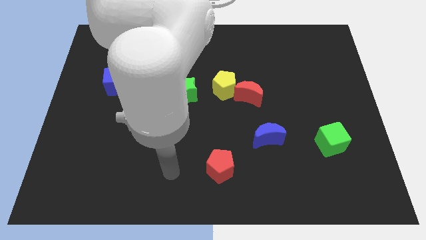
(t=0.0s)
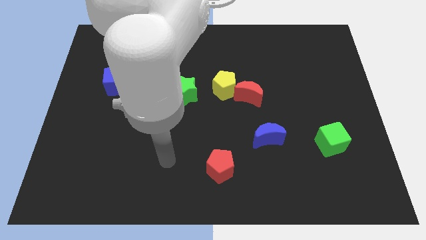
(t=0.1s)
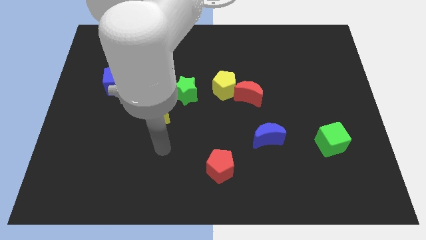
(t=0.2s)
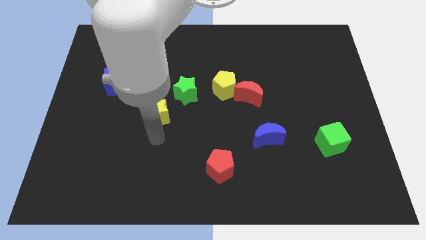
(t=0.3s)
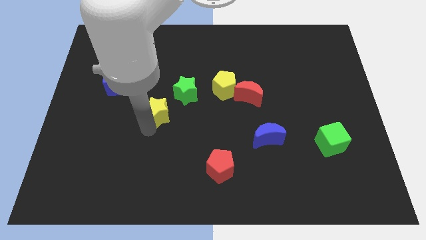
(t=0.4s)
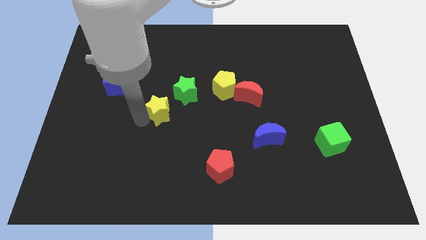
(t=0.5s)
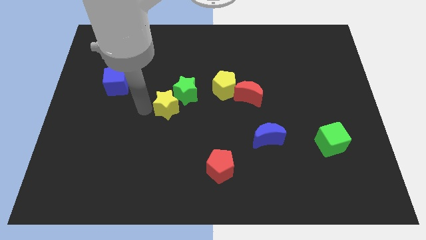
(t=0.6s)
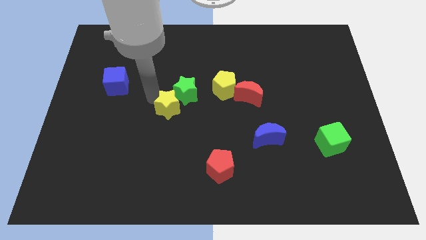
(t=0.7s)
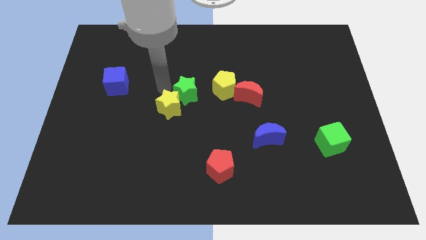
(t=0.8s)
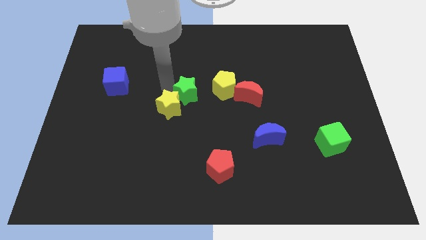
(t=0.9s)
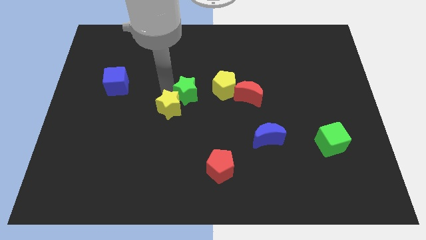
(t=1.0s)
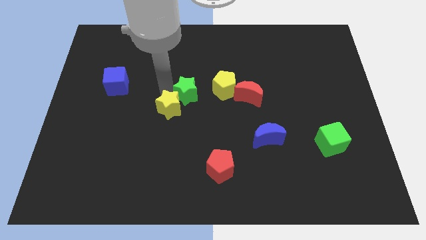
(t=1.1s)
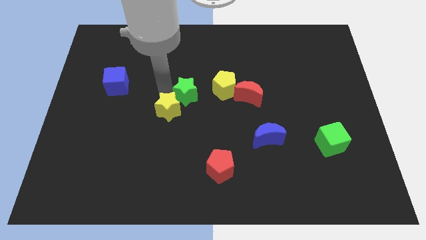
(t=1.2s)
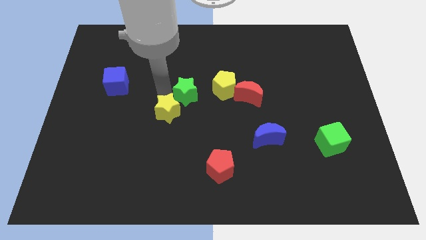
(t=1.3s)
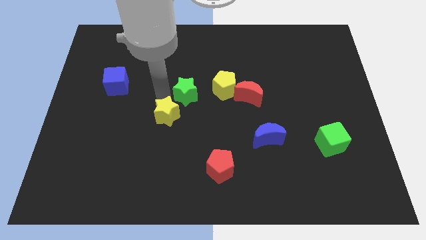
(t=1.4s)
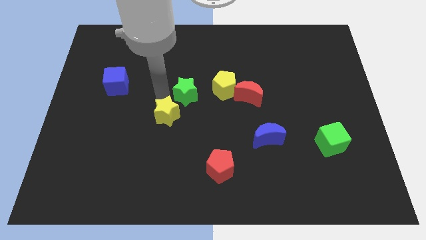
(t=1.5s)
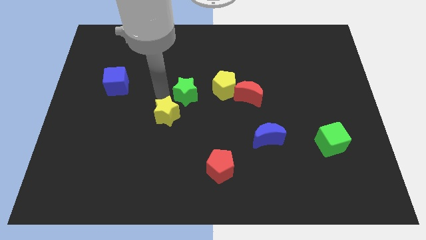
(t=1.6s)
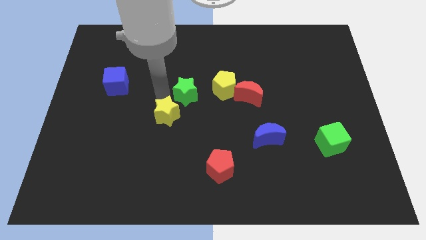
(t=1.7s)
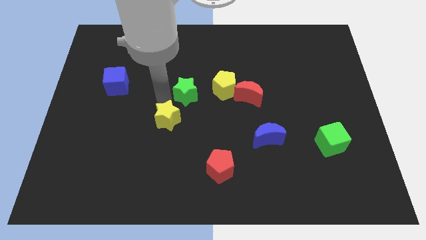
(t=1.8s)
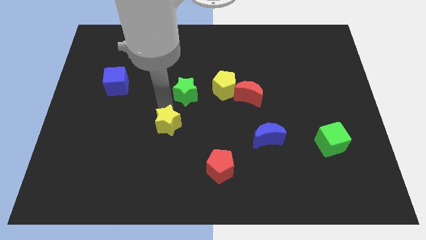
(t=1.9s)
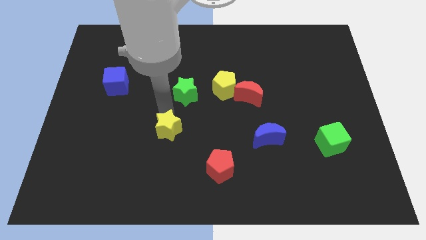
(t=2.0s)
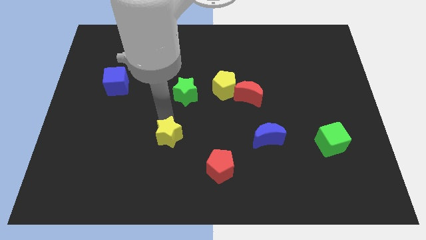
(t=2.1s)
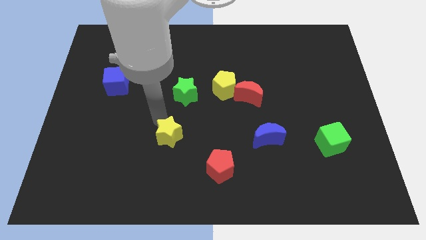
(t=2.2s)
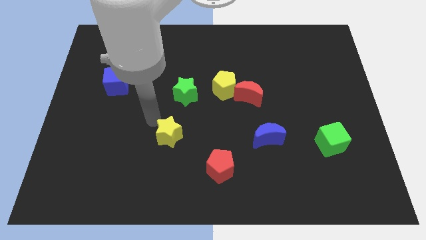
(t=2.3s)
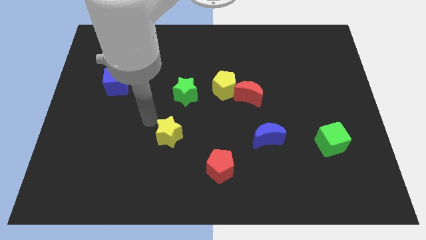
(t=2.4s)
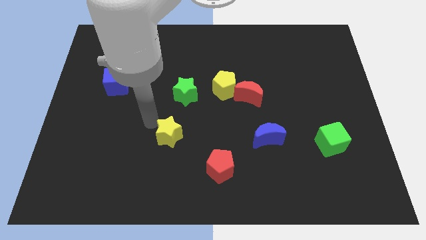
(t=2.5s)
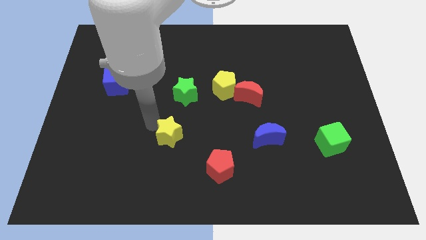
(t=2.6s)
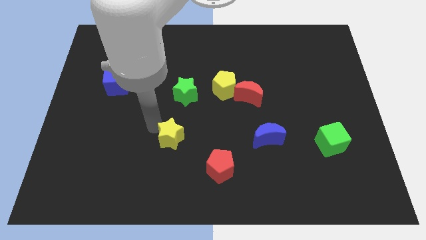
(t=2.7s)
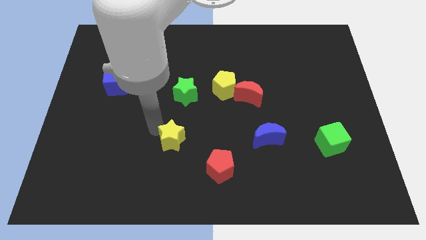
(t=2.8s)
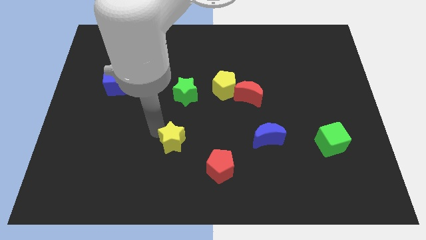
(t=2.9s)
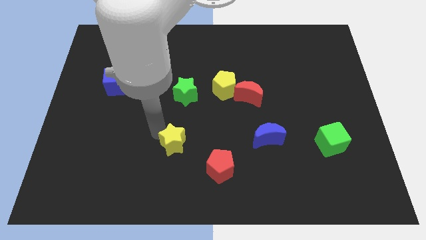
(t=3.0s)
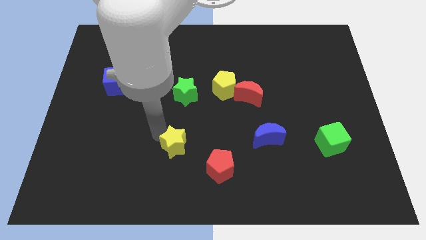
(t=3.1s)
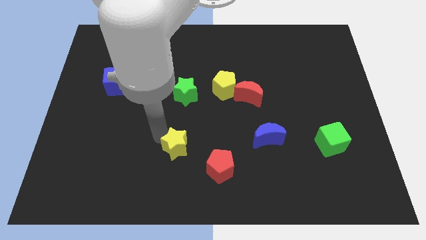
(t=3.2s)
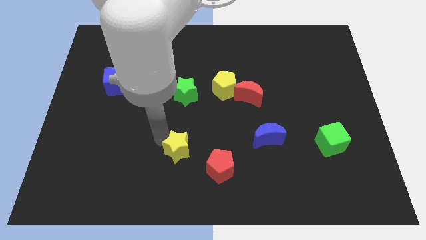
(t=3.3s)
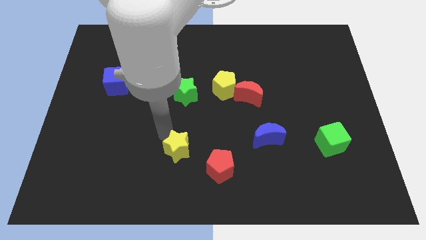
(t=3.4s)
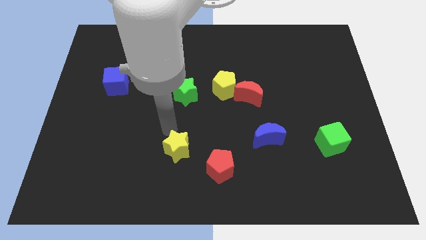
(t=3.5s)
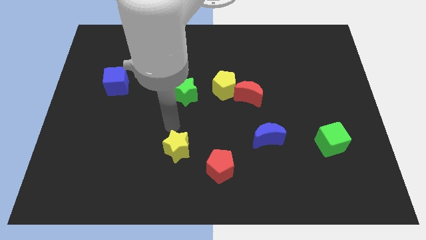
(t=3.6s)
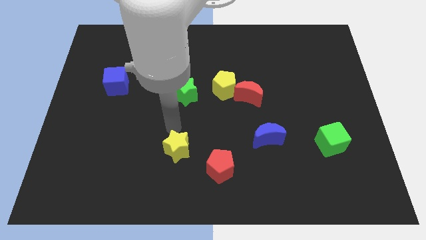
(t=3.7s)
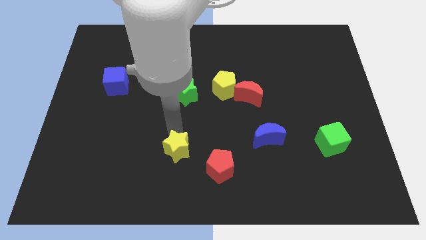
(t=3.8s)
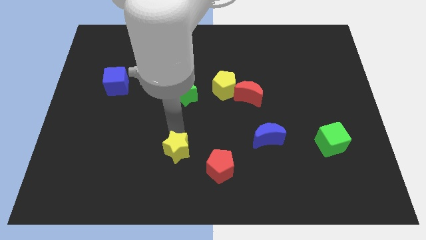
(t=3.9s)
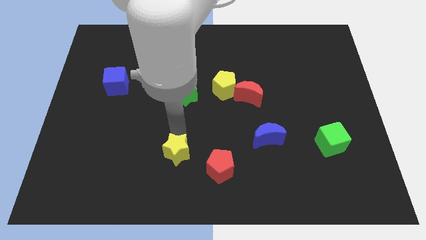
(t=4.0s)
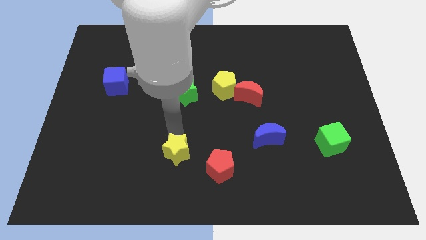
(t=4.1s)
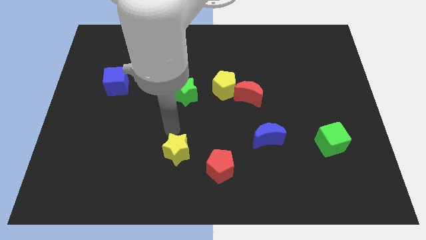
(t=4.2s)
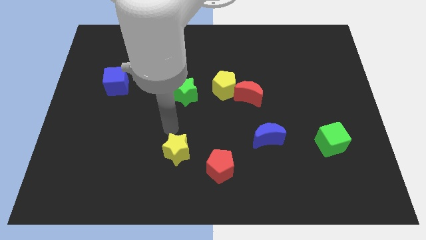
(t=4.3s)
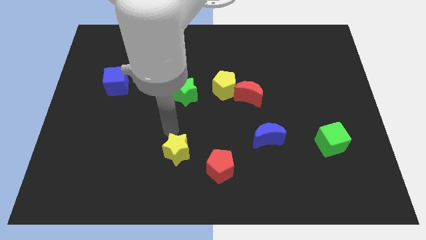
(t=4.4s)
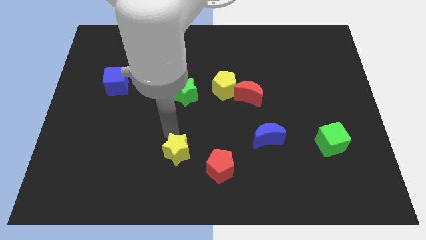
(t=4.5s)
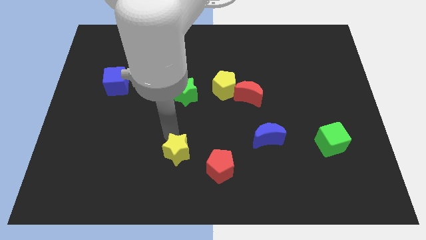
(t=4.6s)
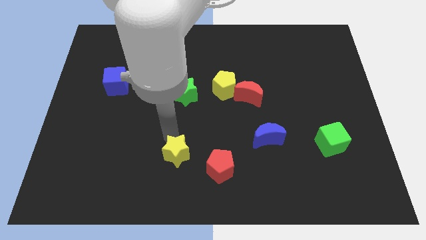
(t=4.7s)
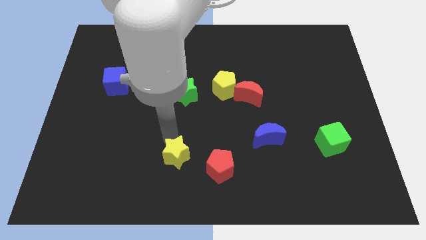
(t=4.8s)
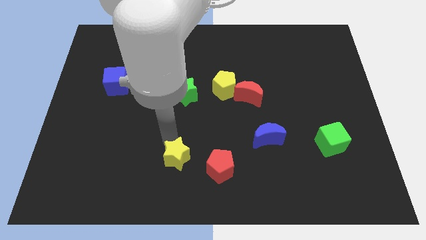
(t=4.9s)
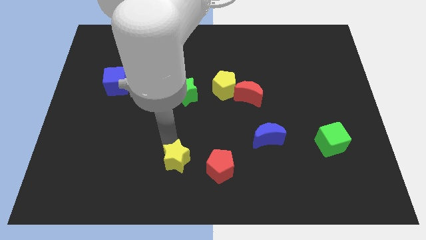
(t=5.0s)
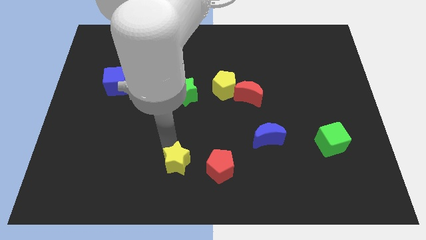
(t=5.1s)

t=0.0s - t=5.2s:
slide the yellow star to the bottom
